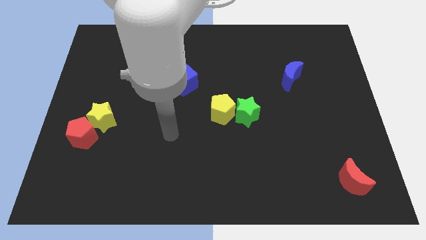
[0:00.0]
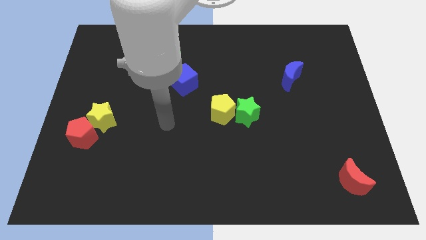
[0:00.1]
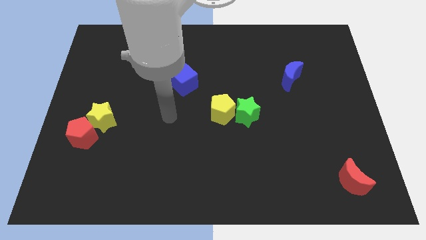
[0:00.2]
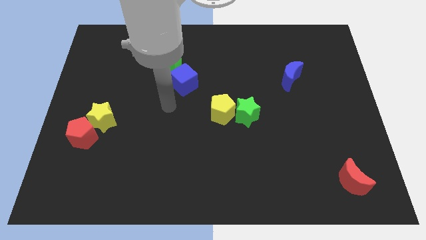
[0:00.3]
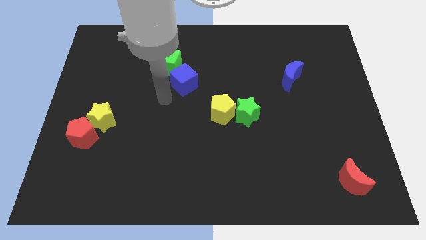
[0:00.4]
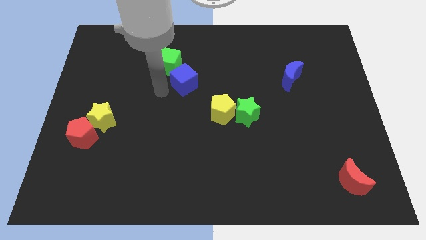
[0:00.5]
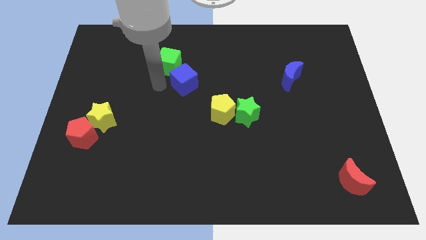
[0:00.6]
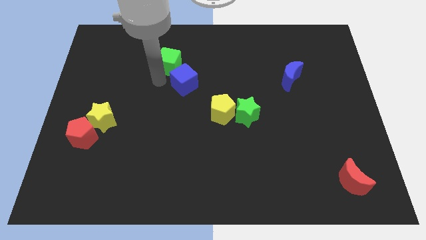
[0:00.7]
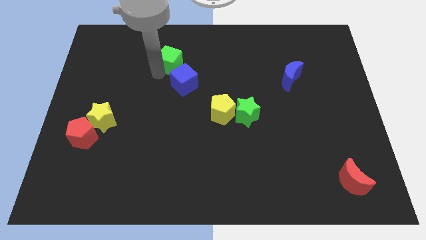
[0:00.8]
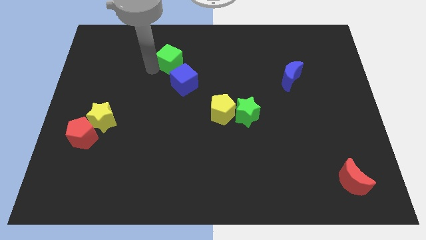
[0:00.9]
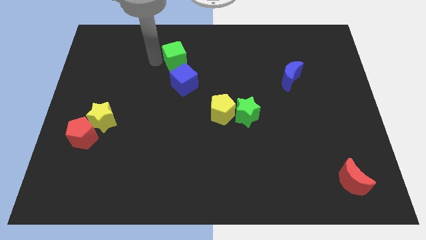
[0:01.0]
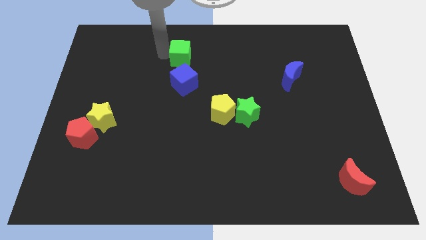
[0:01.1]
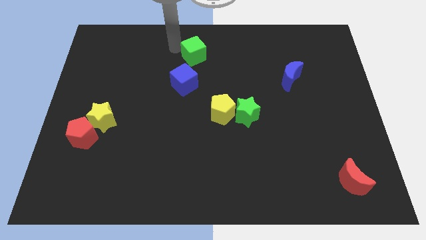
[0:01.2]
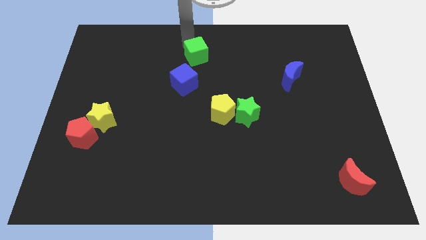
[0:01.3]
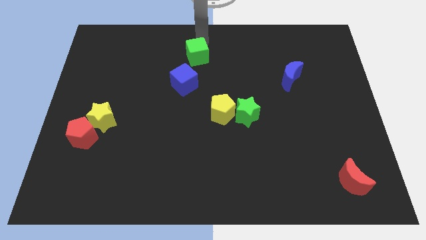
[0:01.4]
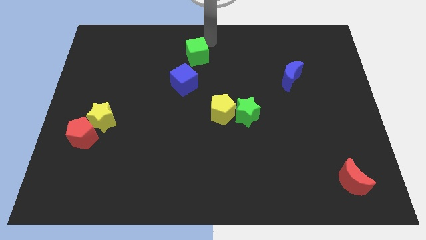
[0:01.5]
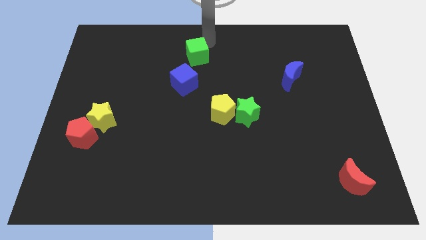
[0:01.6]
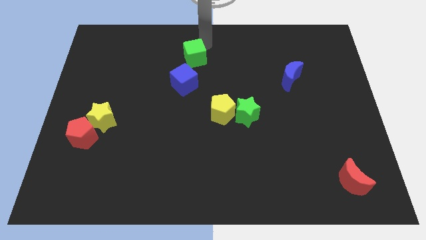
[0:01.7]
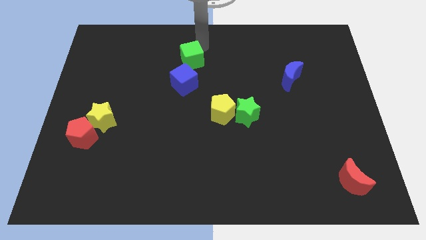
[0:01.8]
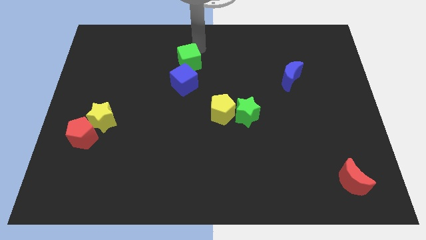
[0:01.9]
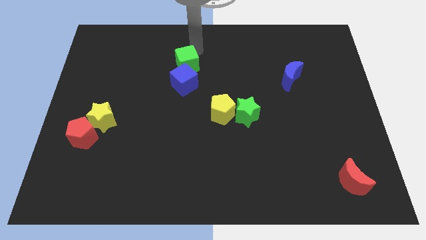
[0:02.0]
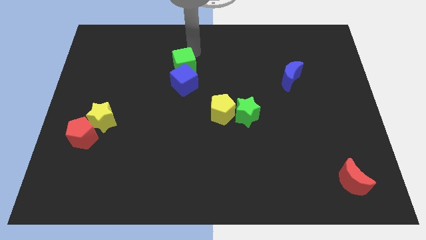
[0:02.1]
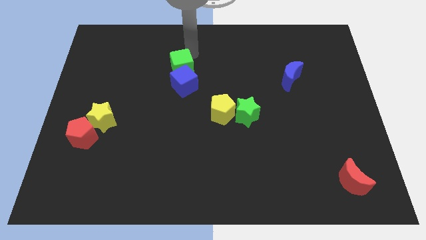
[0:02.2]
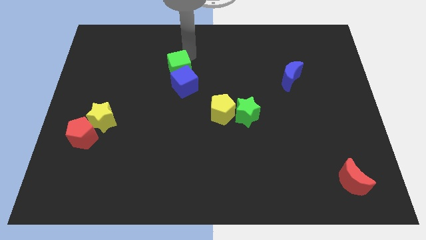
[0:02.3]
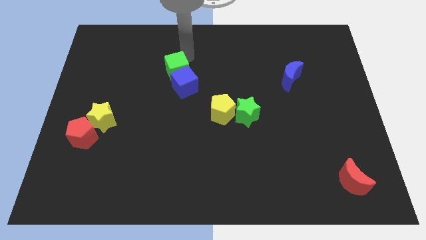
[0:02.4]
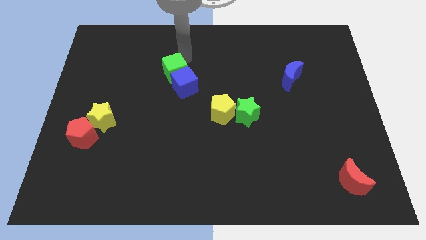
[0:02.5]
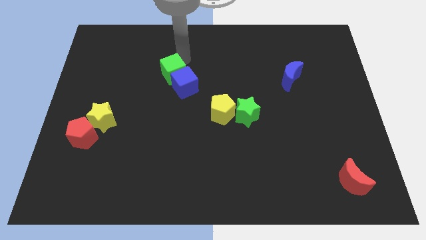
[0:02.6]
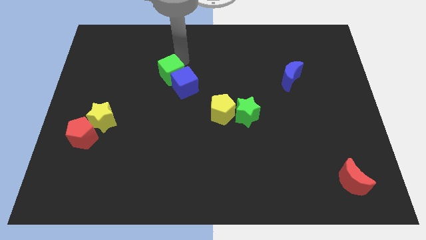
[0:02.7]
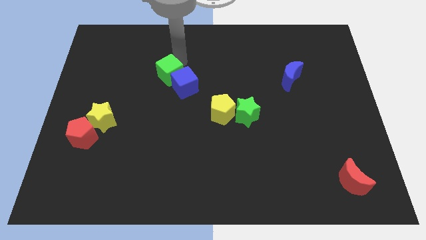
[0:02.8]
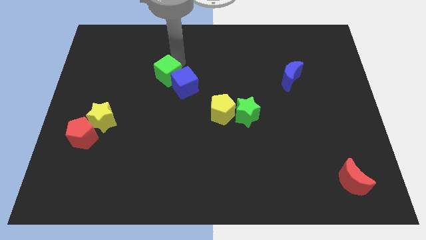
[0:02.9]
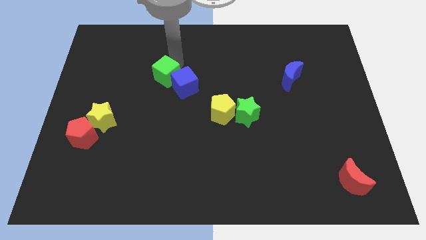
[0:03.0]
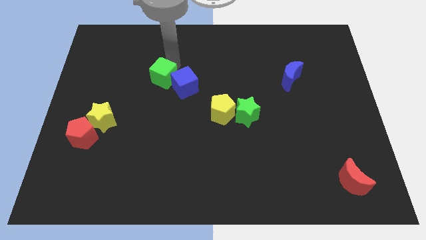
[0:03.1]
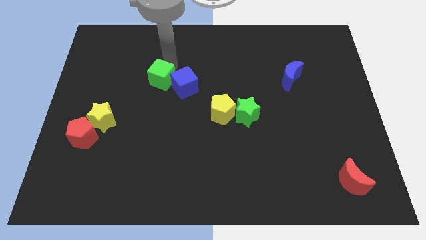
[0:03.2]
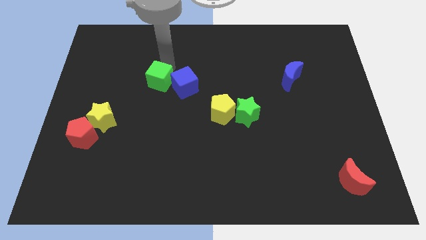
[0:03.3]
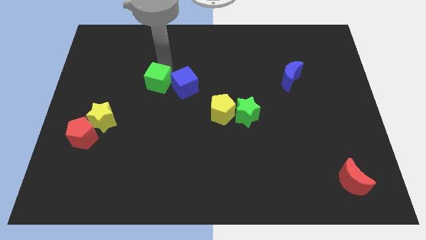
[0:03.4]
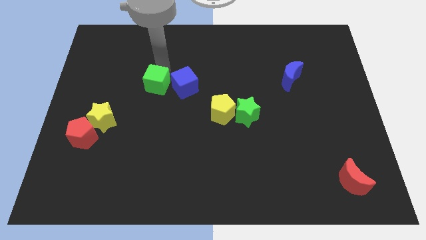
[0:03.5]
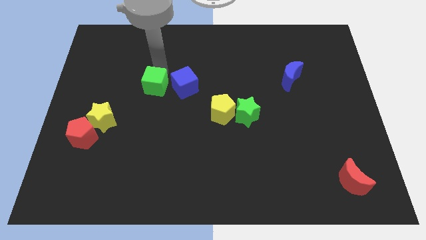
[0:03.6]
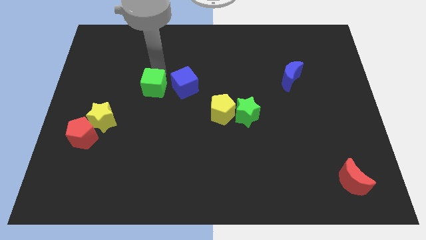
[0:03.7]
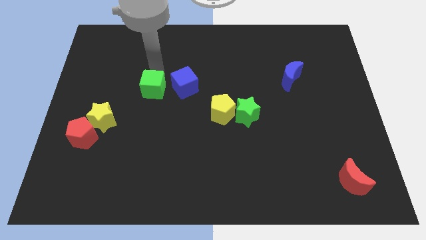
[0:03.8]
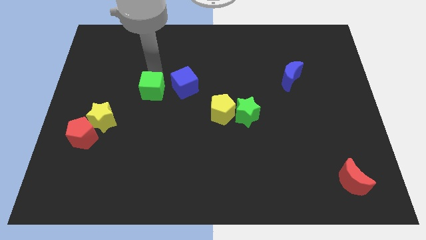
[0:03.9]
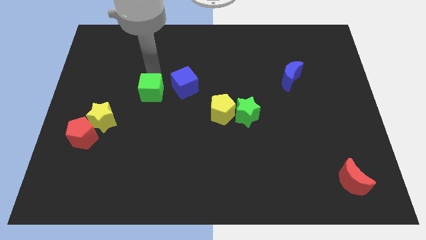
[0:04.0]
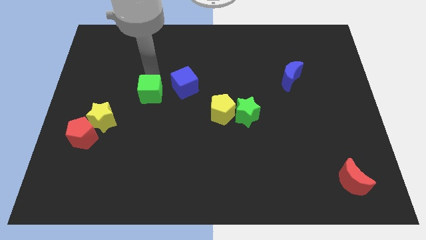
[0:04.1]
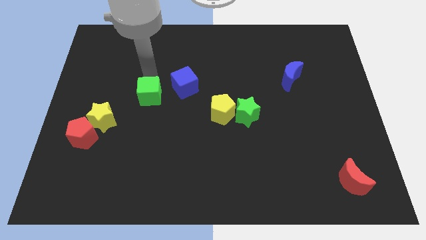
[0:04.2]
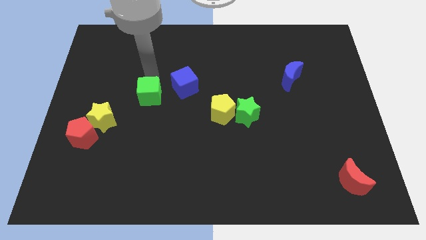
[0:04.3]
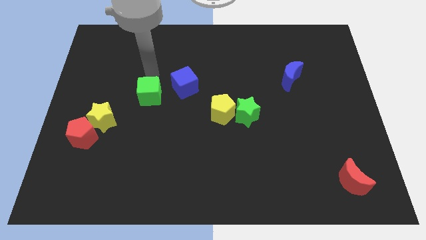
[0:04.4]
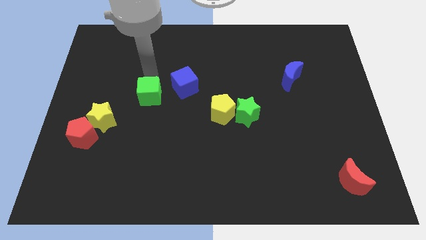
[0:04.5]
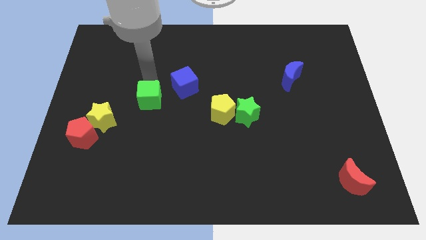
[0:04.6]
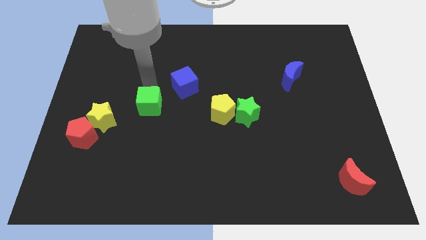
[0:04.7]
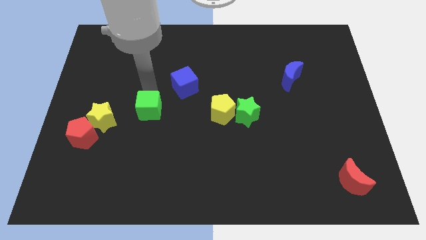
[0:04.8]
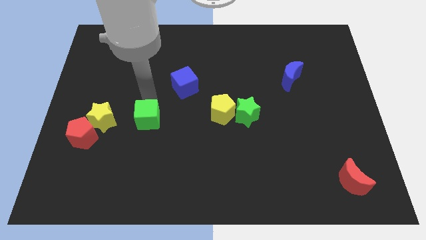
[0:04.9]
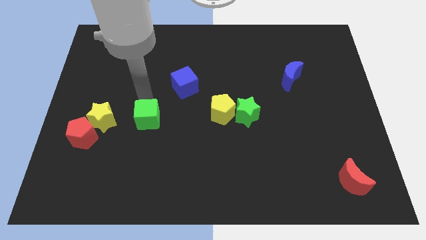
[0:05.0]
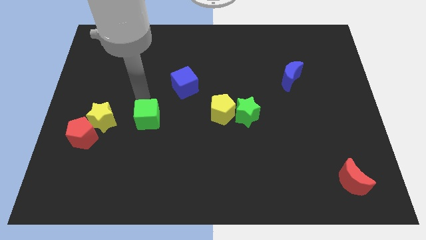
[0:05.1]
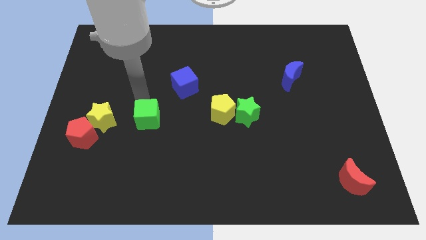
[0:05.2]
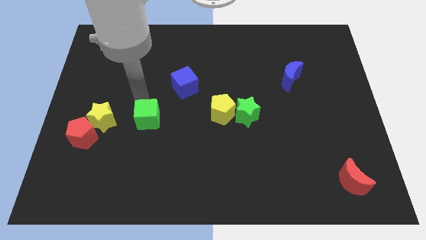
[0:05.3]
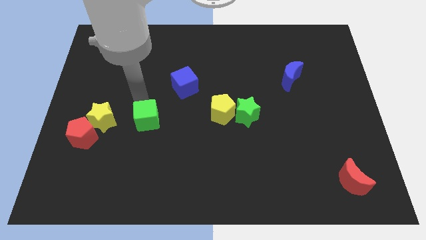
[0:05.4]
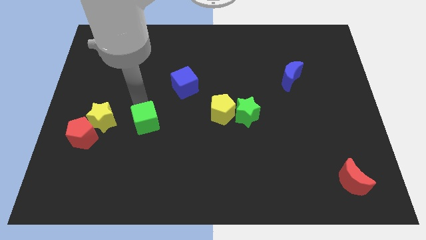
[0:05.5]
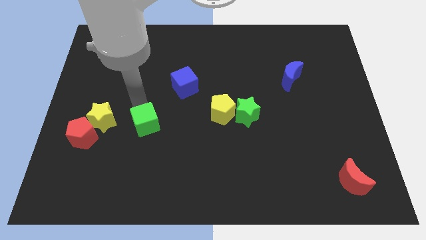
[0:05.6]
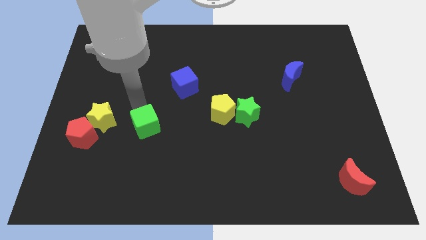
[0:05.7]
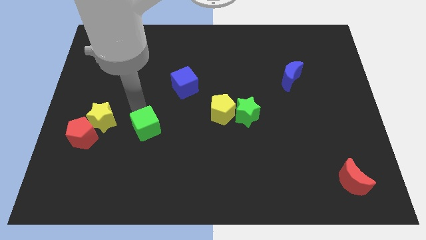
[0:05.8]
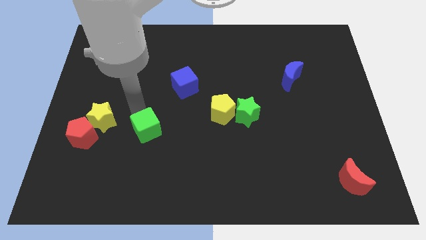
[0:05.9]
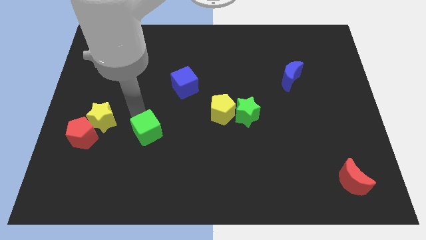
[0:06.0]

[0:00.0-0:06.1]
move the green cube downwards

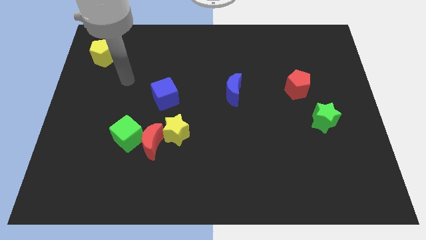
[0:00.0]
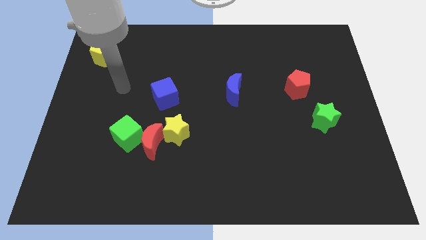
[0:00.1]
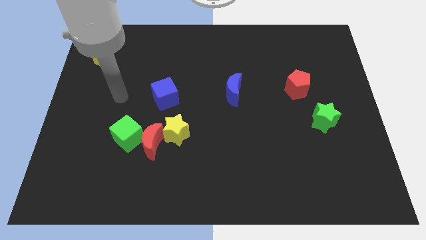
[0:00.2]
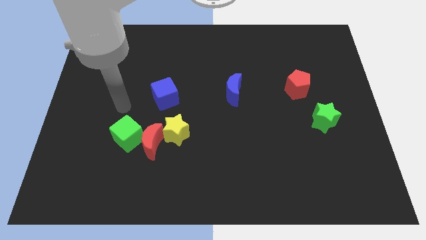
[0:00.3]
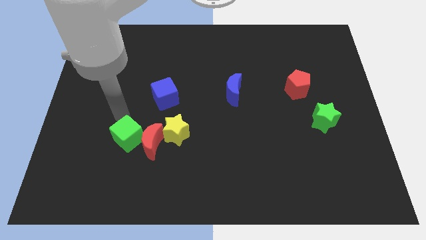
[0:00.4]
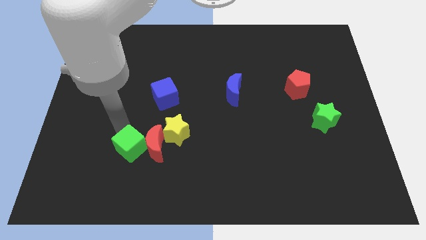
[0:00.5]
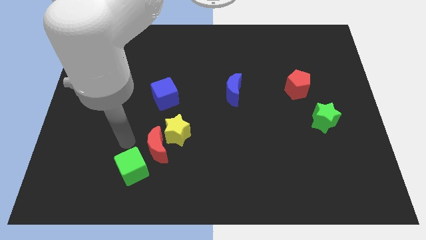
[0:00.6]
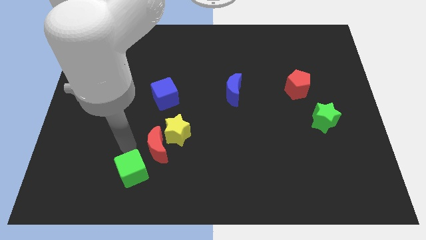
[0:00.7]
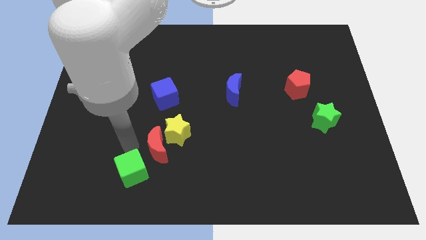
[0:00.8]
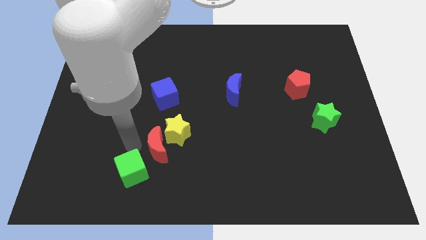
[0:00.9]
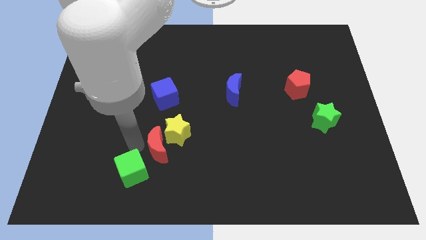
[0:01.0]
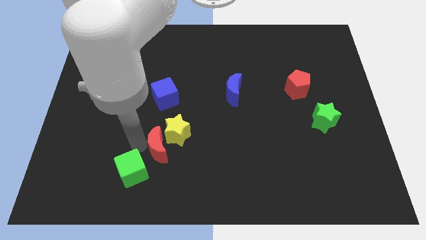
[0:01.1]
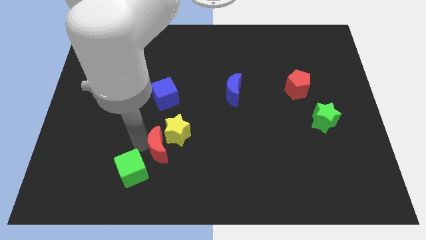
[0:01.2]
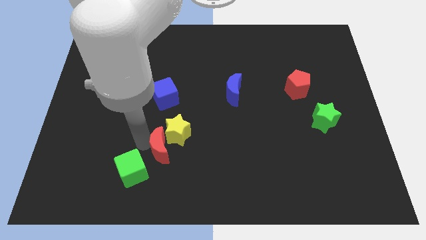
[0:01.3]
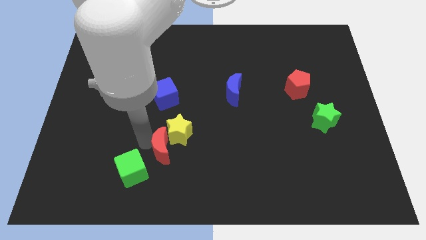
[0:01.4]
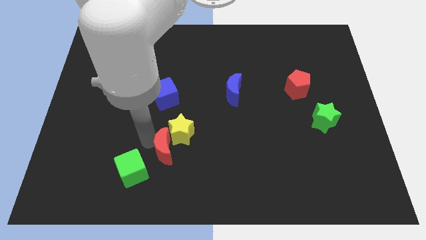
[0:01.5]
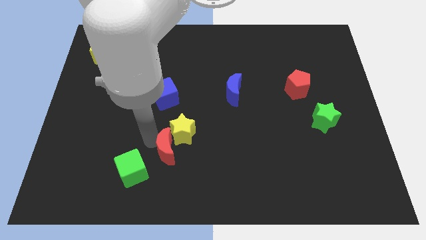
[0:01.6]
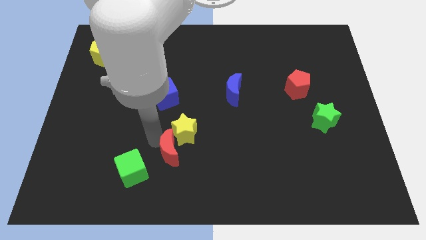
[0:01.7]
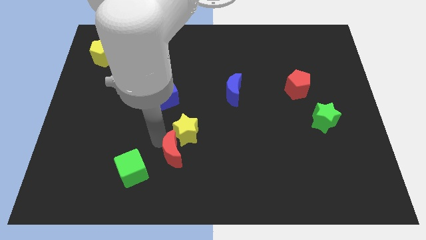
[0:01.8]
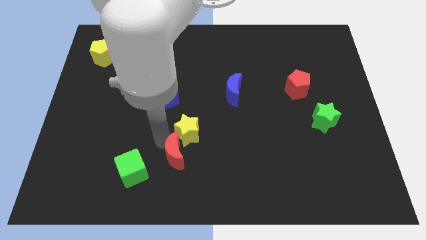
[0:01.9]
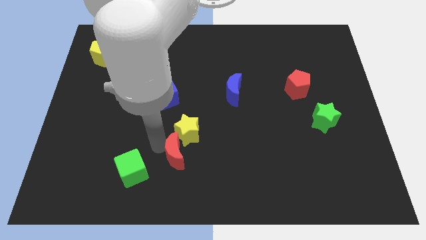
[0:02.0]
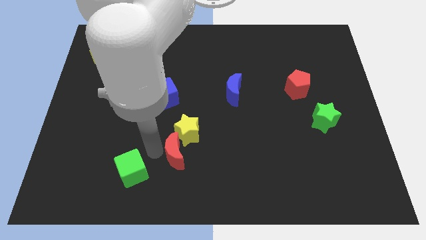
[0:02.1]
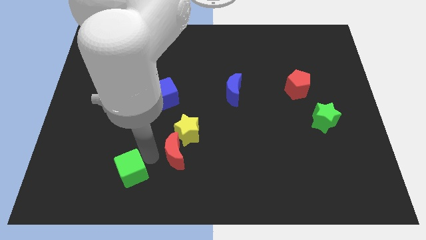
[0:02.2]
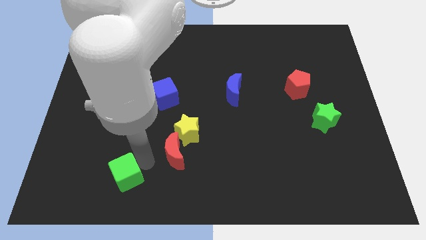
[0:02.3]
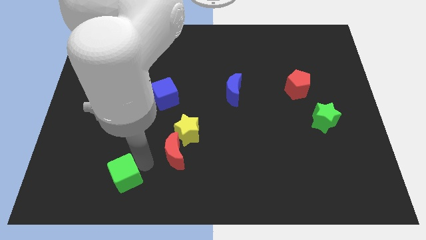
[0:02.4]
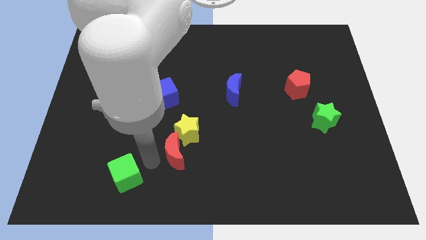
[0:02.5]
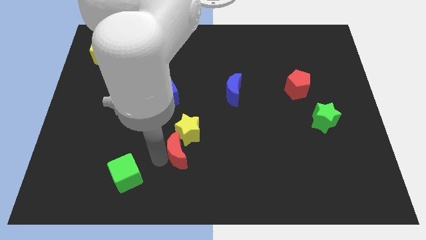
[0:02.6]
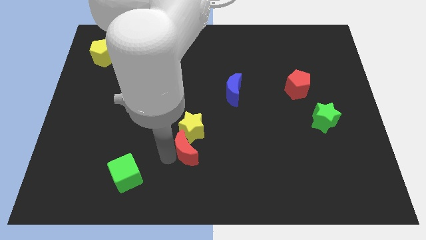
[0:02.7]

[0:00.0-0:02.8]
move the red moon to the right a little
